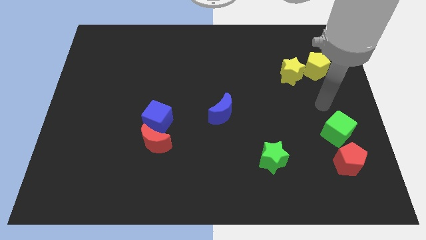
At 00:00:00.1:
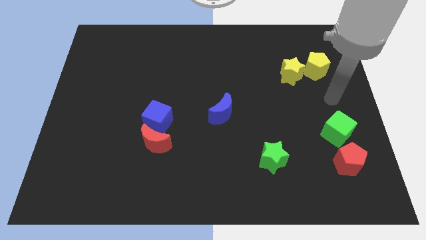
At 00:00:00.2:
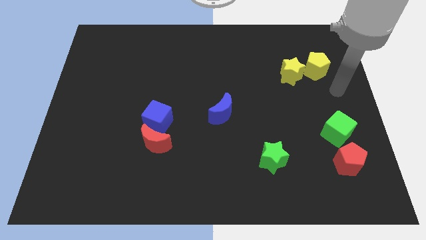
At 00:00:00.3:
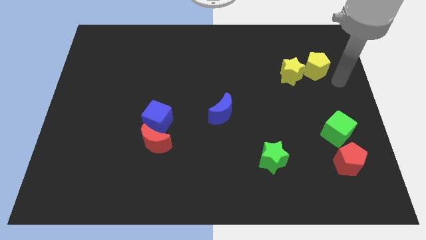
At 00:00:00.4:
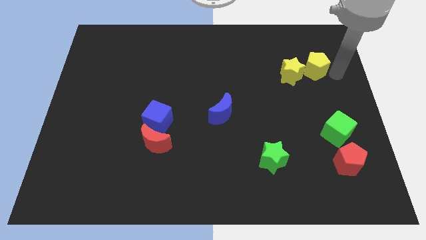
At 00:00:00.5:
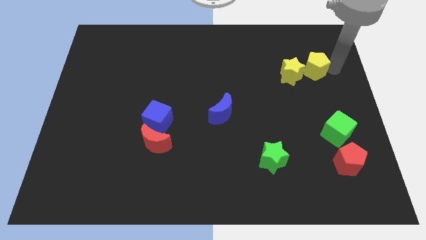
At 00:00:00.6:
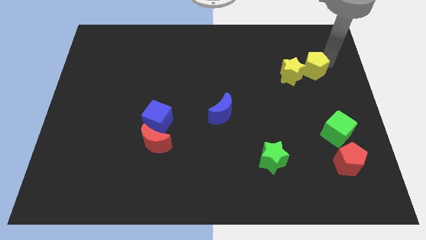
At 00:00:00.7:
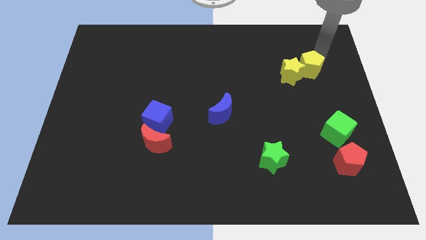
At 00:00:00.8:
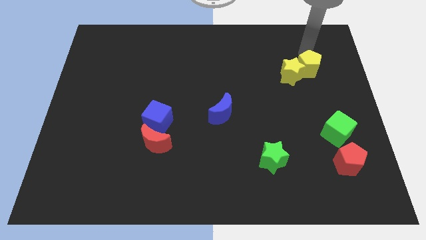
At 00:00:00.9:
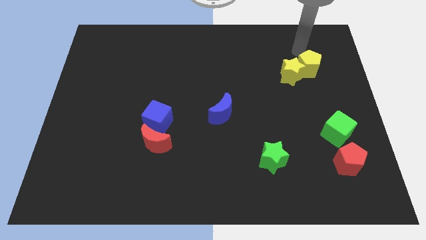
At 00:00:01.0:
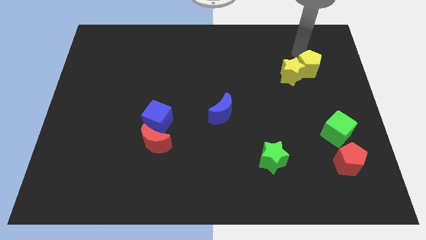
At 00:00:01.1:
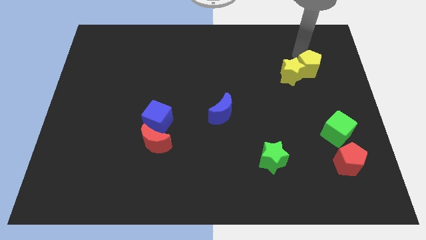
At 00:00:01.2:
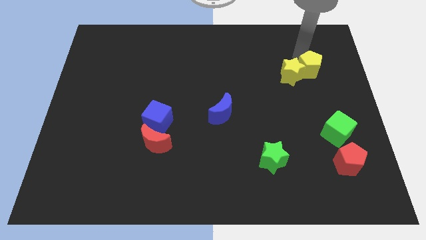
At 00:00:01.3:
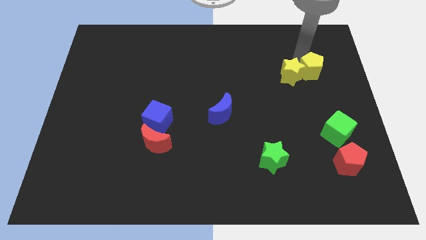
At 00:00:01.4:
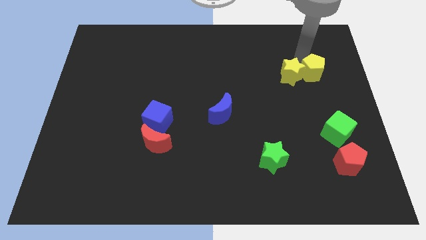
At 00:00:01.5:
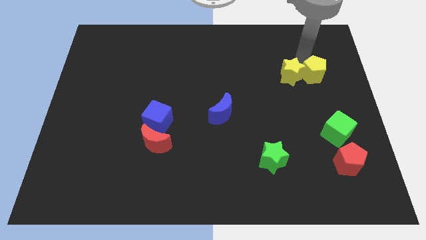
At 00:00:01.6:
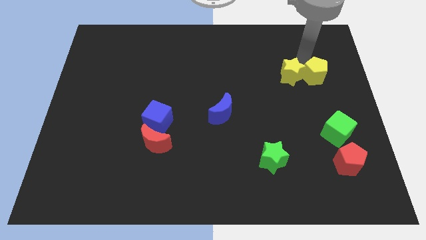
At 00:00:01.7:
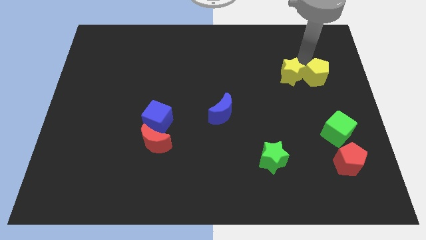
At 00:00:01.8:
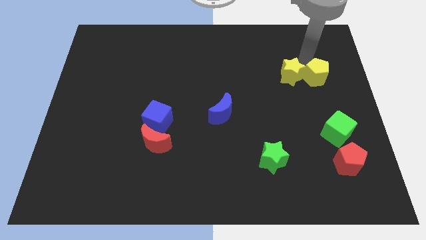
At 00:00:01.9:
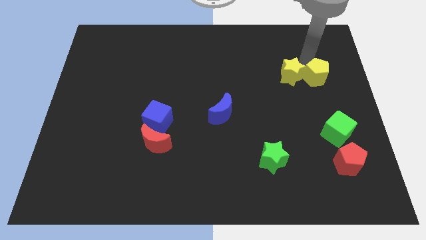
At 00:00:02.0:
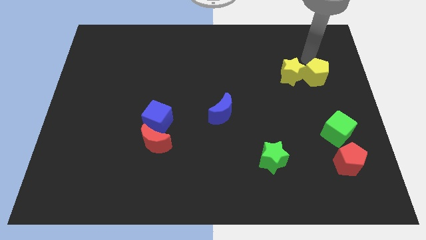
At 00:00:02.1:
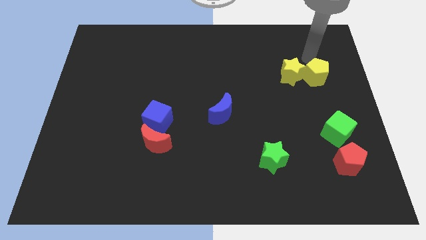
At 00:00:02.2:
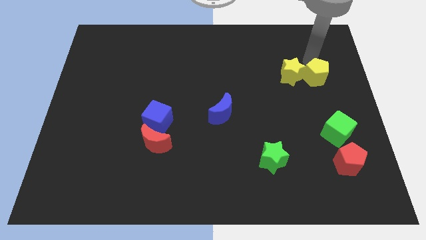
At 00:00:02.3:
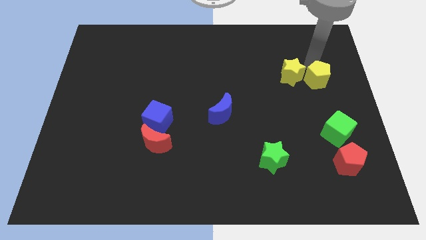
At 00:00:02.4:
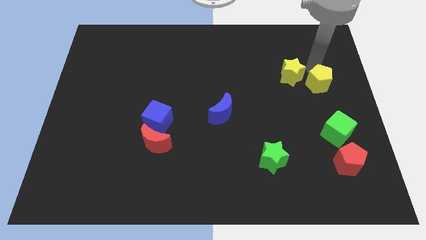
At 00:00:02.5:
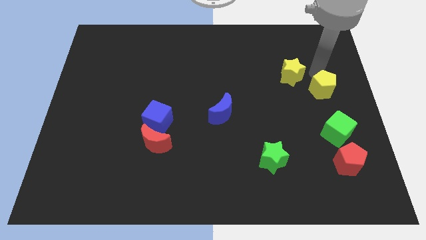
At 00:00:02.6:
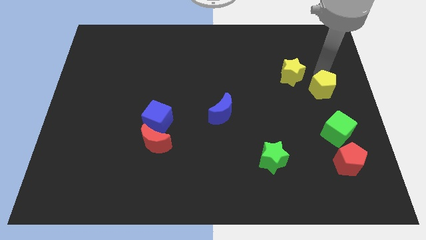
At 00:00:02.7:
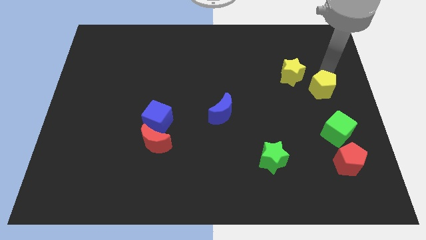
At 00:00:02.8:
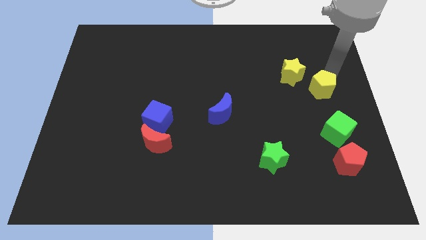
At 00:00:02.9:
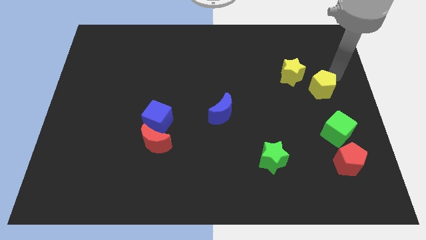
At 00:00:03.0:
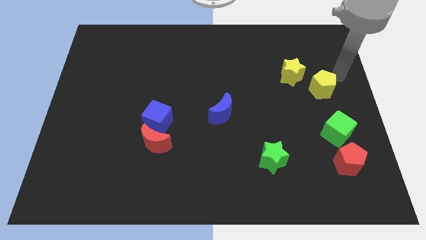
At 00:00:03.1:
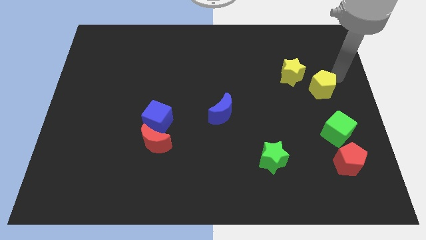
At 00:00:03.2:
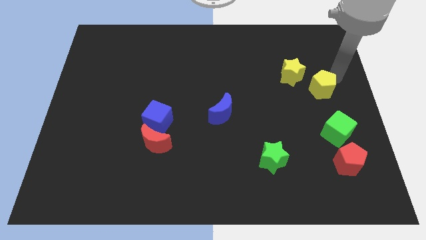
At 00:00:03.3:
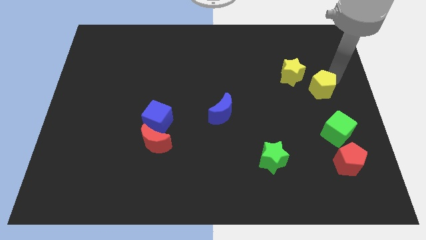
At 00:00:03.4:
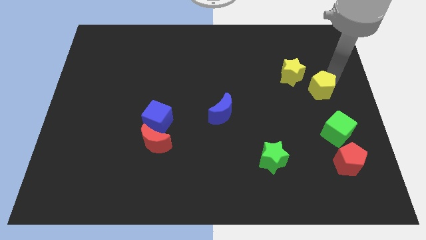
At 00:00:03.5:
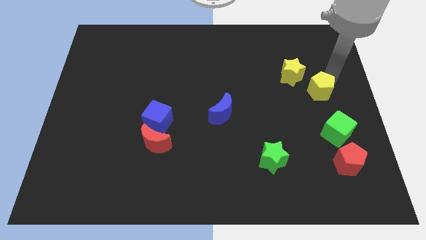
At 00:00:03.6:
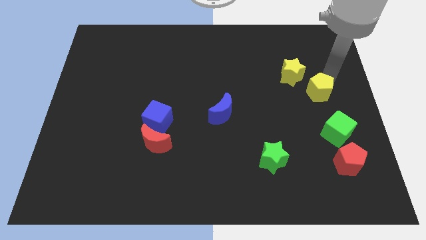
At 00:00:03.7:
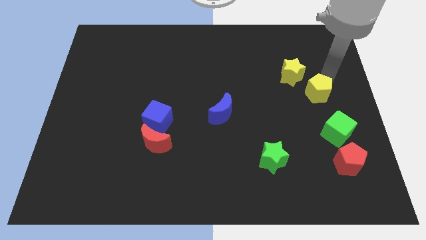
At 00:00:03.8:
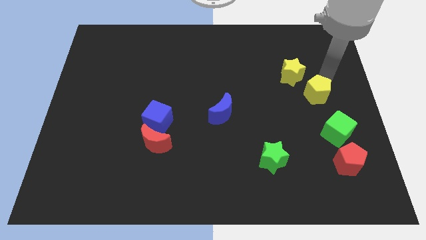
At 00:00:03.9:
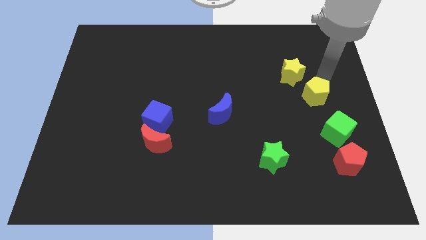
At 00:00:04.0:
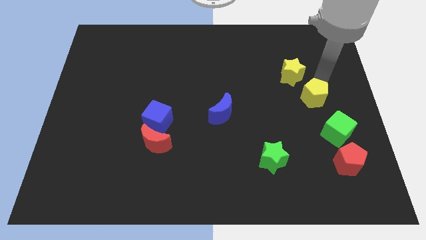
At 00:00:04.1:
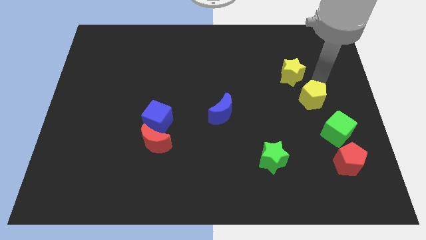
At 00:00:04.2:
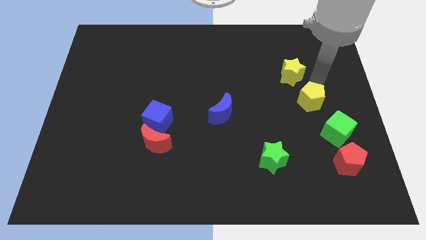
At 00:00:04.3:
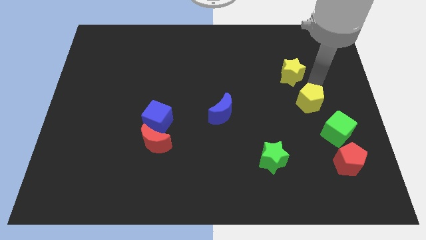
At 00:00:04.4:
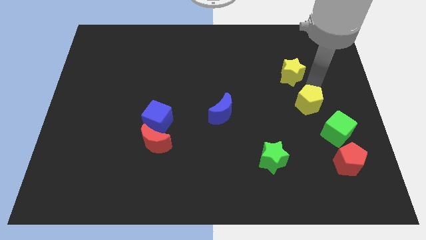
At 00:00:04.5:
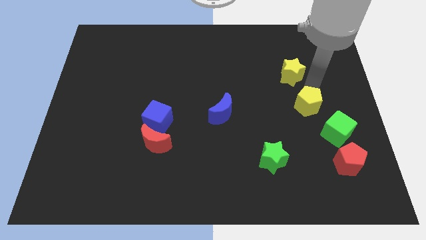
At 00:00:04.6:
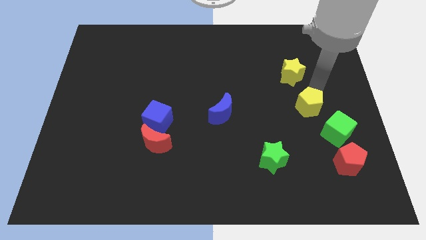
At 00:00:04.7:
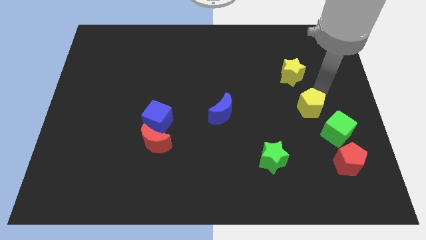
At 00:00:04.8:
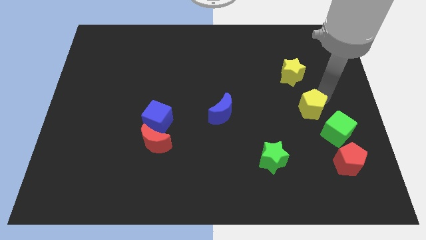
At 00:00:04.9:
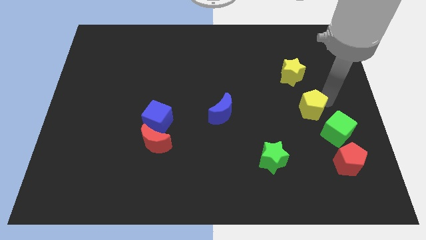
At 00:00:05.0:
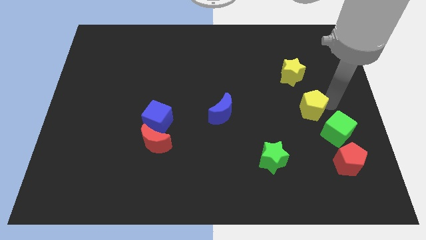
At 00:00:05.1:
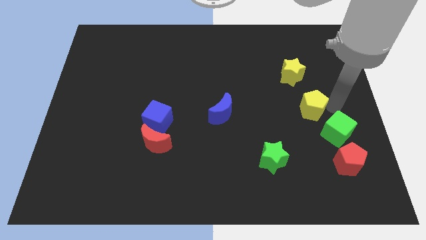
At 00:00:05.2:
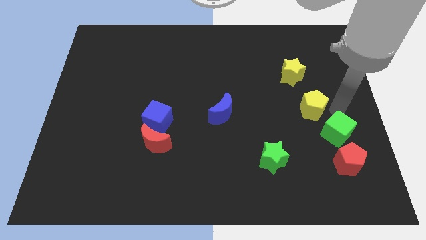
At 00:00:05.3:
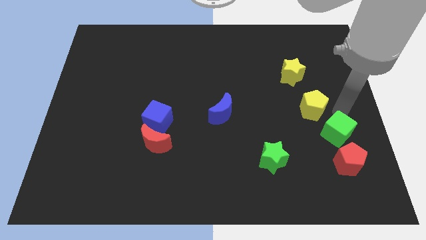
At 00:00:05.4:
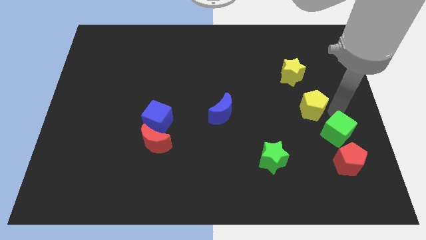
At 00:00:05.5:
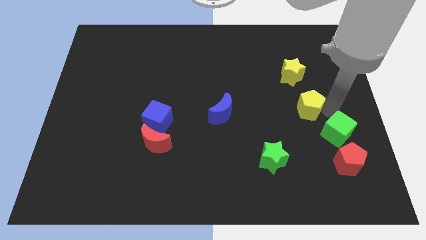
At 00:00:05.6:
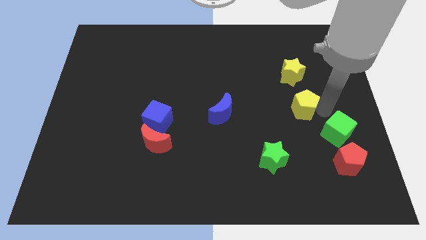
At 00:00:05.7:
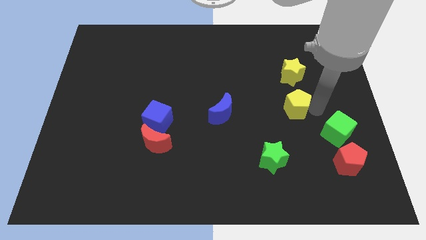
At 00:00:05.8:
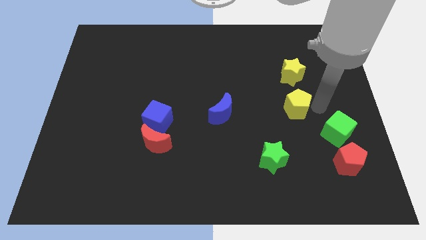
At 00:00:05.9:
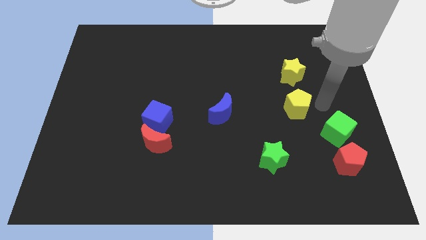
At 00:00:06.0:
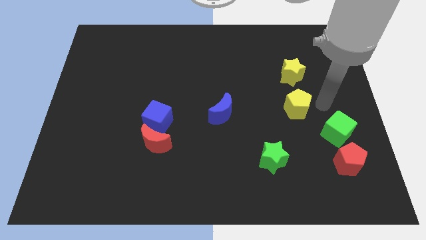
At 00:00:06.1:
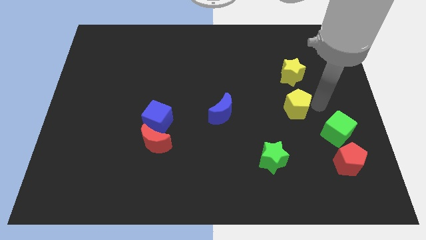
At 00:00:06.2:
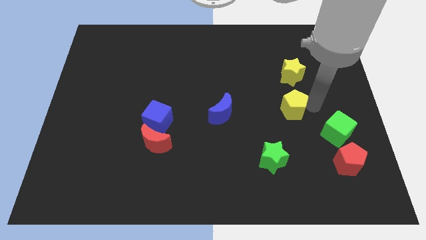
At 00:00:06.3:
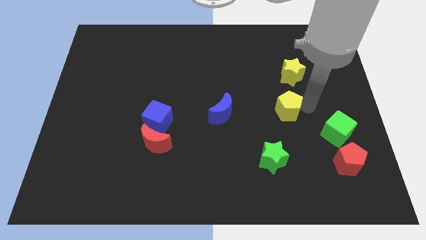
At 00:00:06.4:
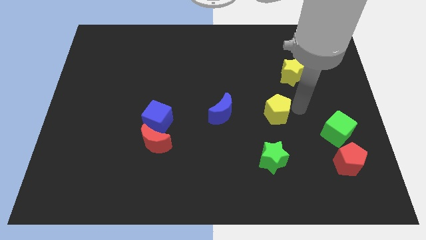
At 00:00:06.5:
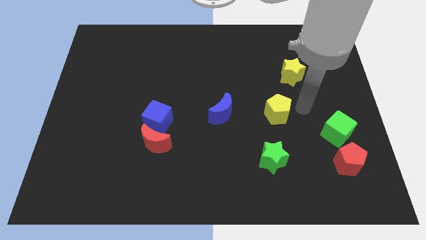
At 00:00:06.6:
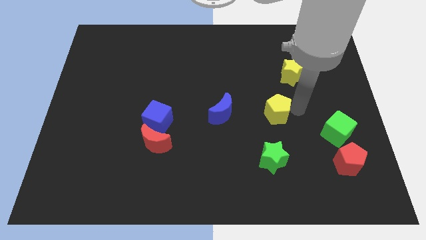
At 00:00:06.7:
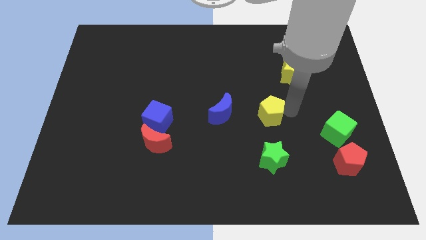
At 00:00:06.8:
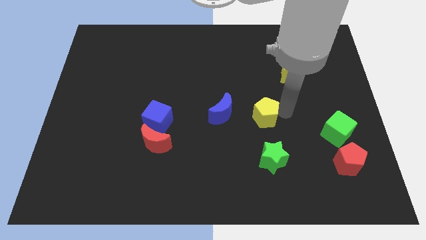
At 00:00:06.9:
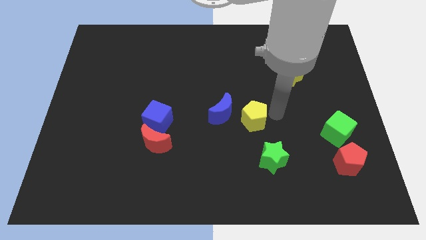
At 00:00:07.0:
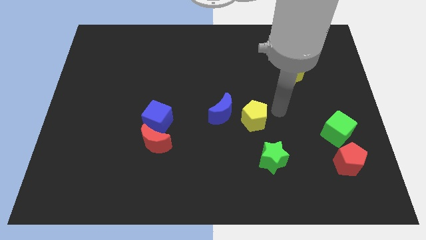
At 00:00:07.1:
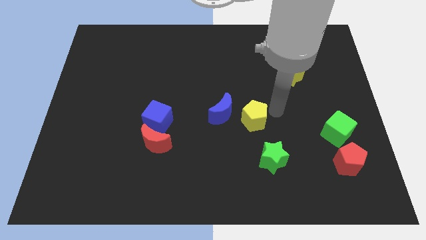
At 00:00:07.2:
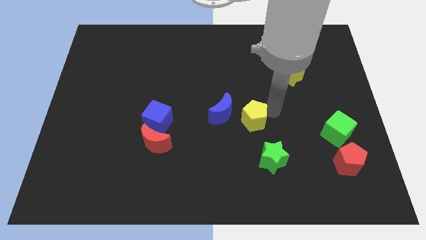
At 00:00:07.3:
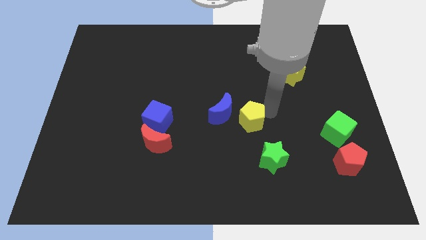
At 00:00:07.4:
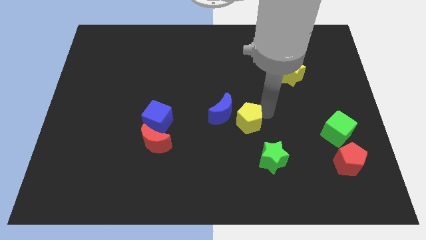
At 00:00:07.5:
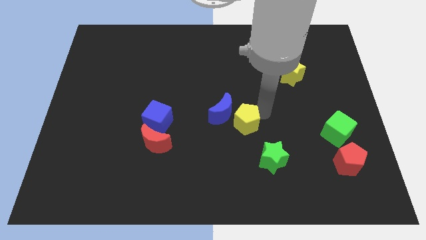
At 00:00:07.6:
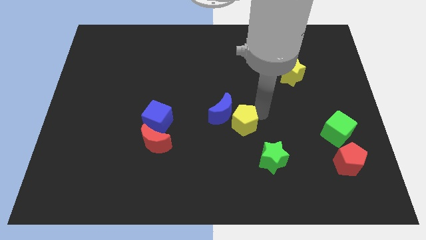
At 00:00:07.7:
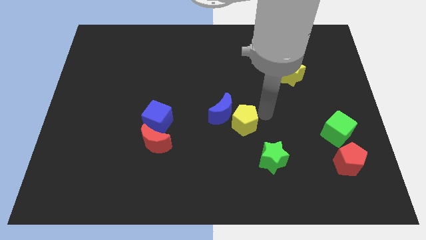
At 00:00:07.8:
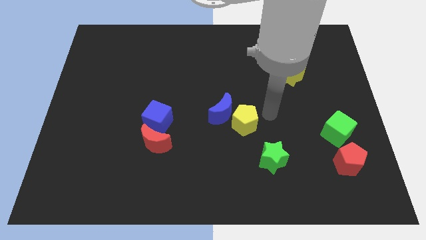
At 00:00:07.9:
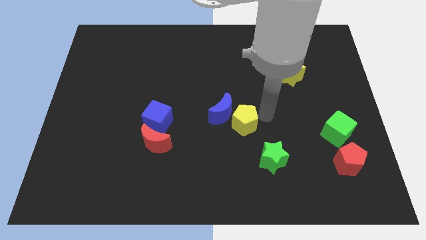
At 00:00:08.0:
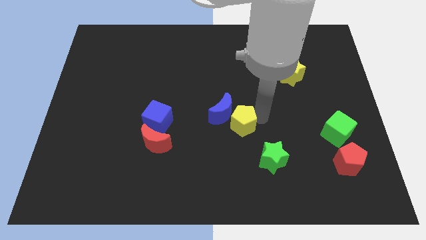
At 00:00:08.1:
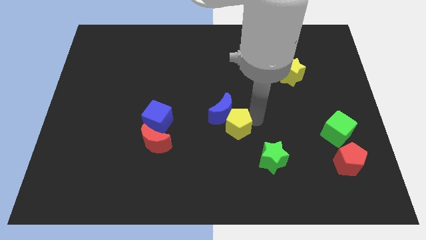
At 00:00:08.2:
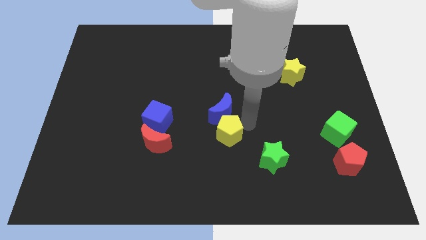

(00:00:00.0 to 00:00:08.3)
push the yellow pentagon to the bottom left side of the blue moon
